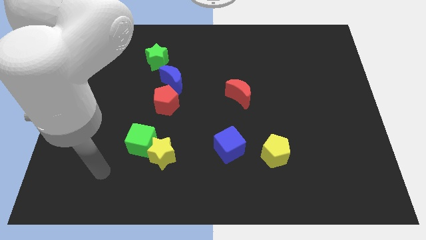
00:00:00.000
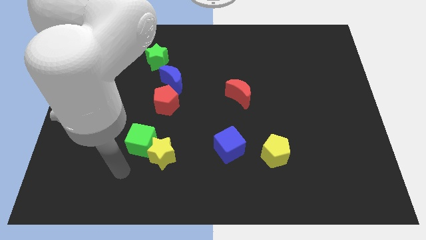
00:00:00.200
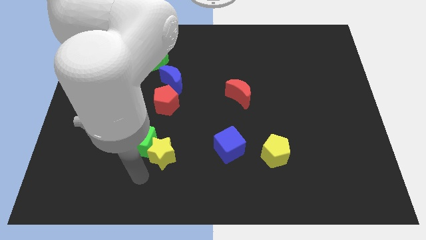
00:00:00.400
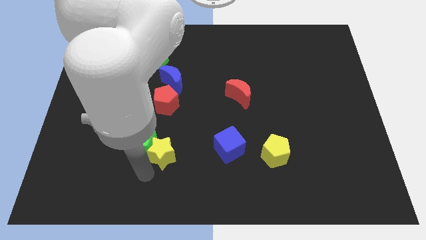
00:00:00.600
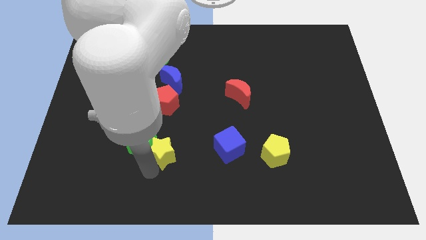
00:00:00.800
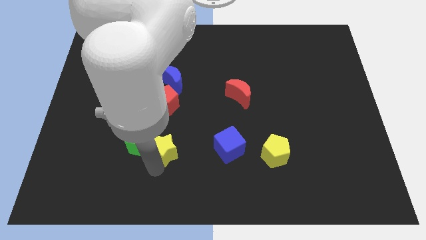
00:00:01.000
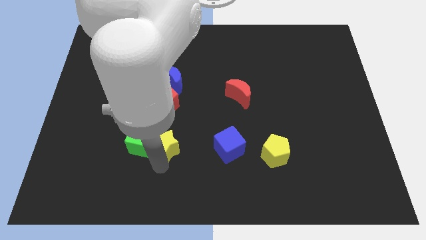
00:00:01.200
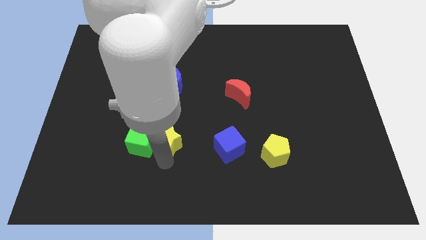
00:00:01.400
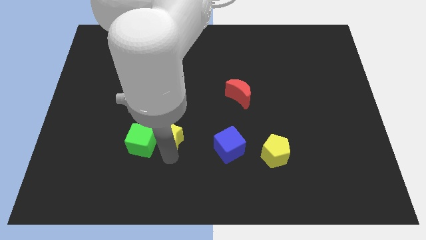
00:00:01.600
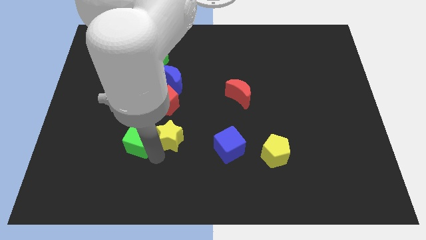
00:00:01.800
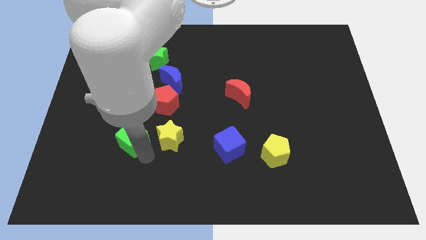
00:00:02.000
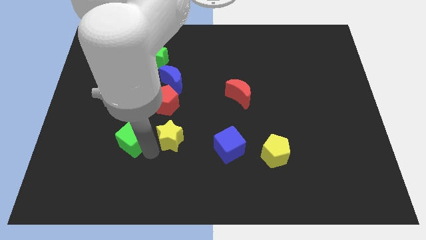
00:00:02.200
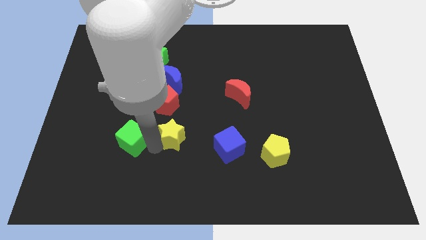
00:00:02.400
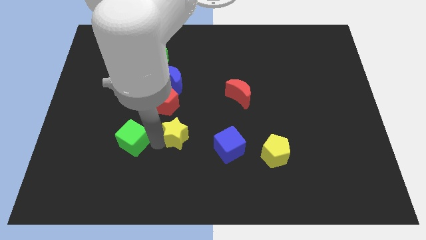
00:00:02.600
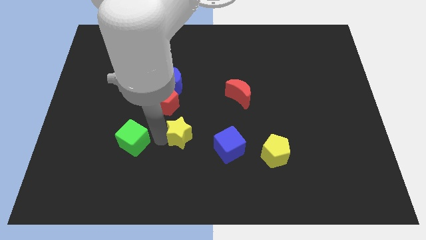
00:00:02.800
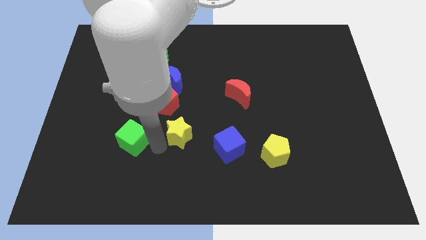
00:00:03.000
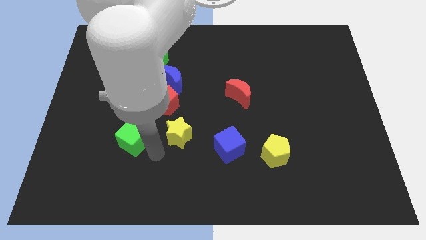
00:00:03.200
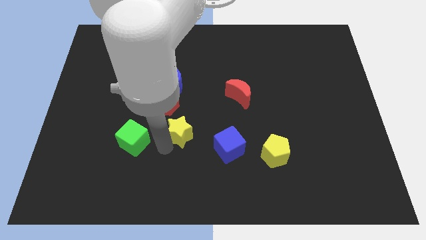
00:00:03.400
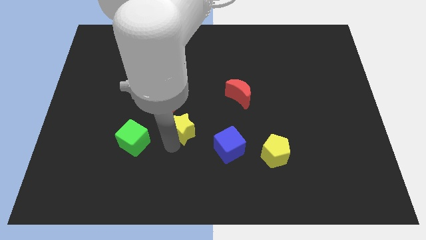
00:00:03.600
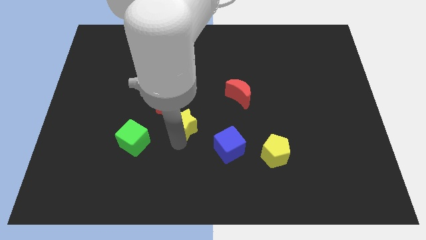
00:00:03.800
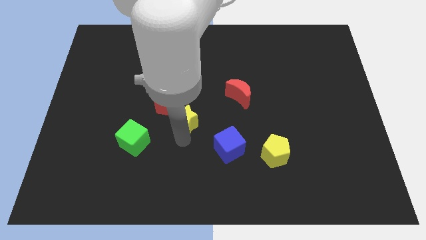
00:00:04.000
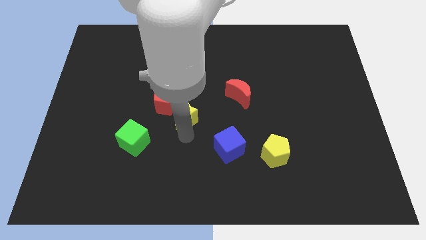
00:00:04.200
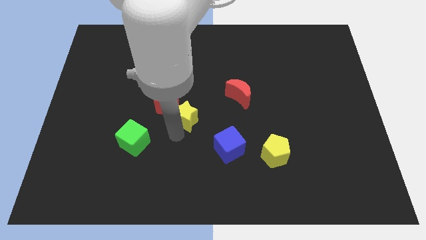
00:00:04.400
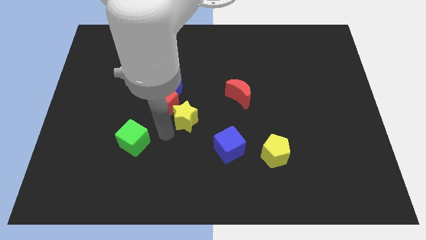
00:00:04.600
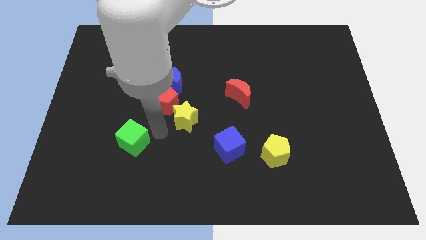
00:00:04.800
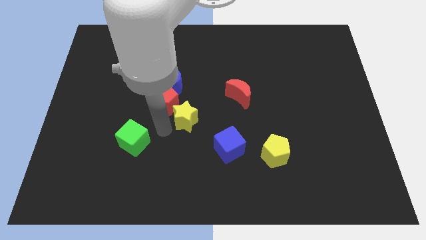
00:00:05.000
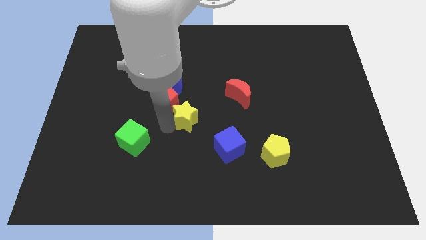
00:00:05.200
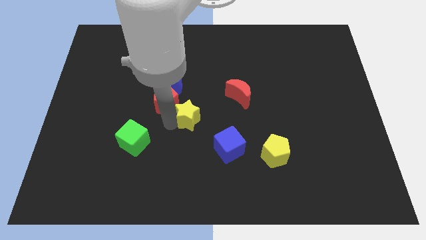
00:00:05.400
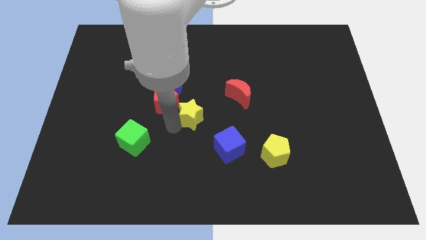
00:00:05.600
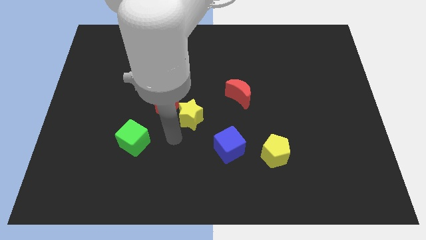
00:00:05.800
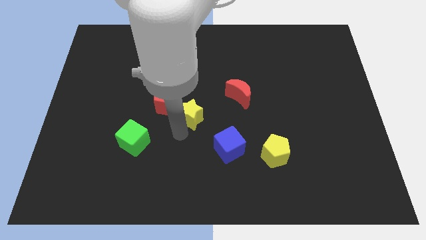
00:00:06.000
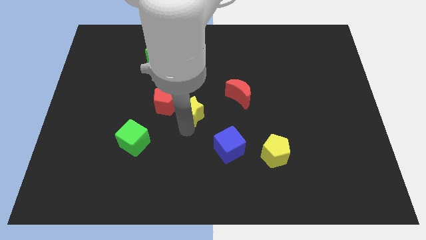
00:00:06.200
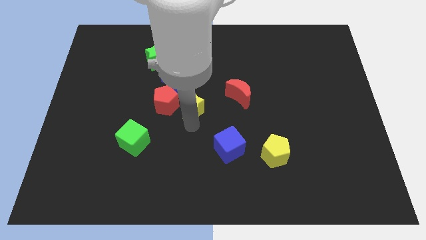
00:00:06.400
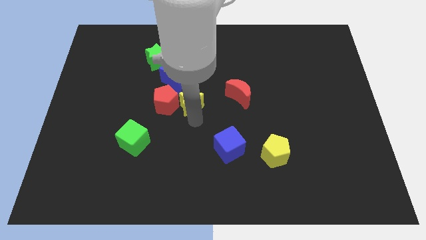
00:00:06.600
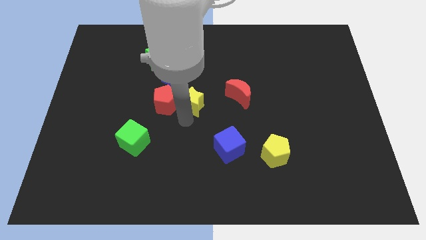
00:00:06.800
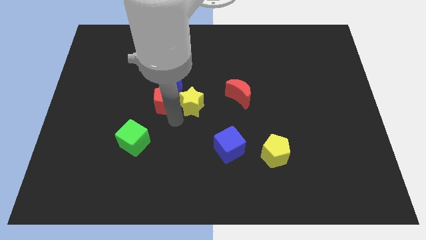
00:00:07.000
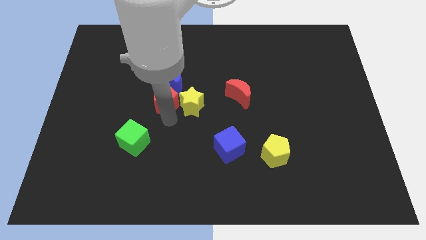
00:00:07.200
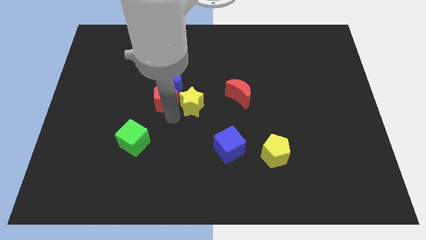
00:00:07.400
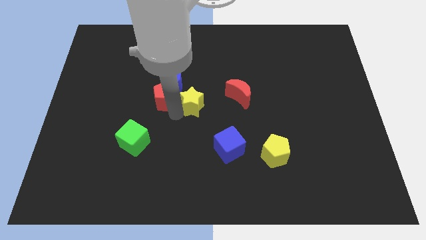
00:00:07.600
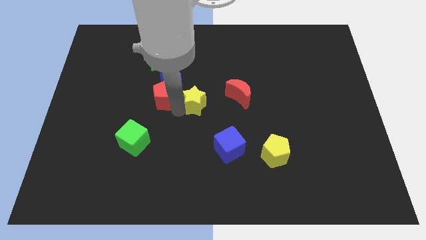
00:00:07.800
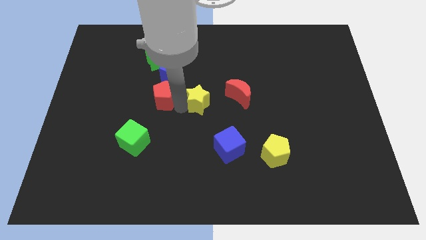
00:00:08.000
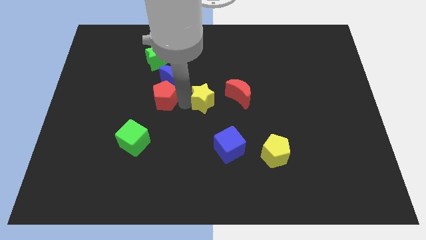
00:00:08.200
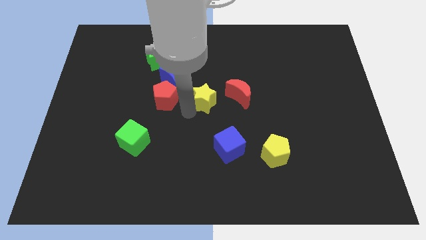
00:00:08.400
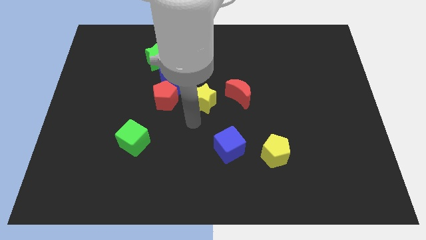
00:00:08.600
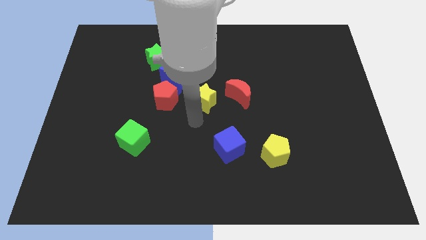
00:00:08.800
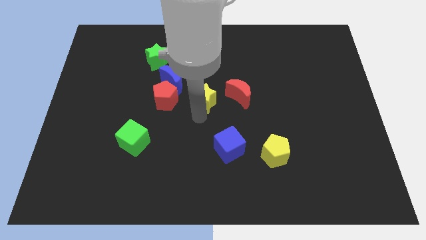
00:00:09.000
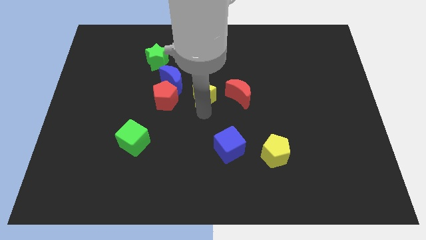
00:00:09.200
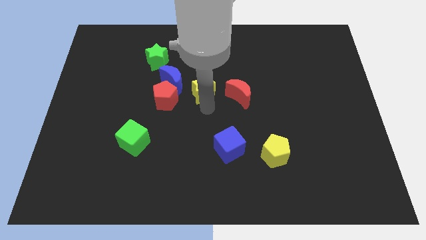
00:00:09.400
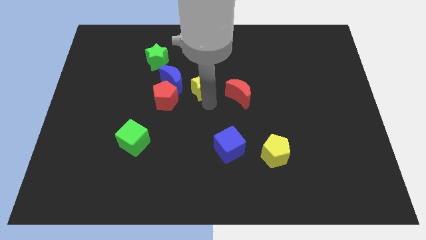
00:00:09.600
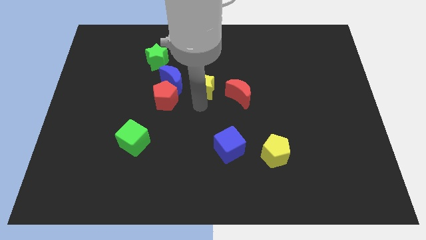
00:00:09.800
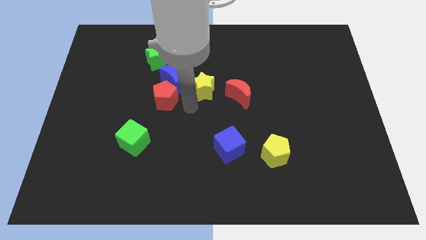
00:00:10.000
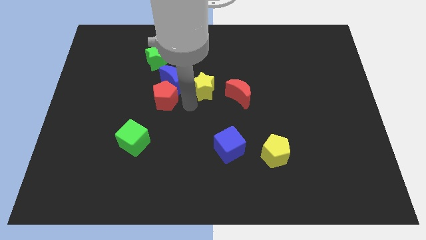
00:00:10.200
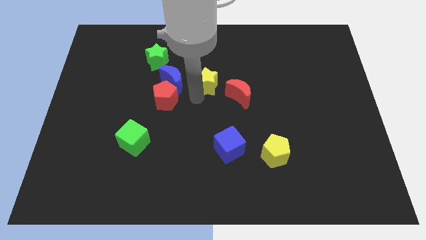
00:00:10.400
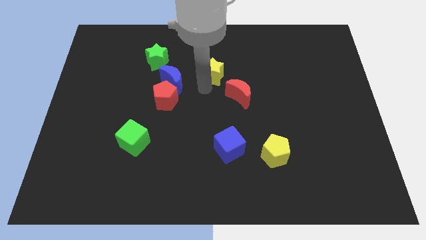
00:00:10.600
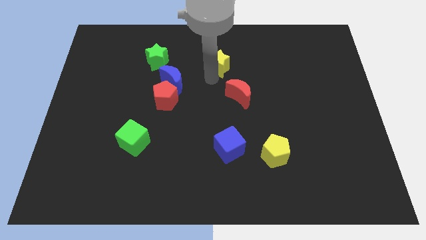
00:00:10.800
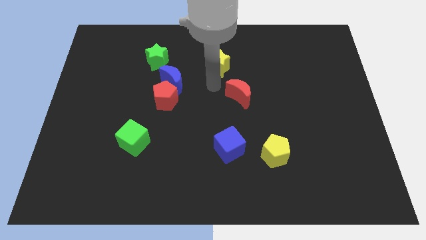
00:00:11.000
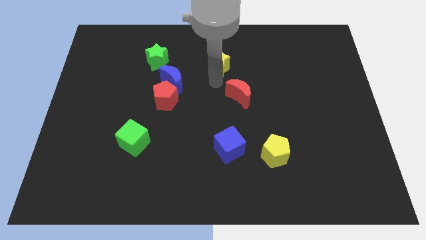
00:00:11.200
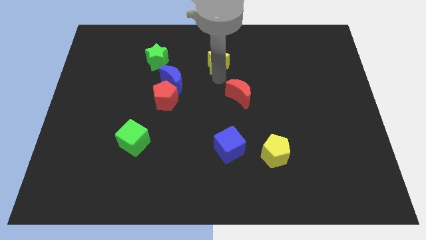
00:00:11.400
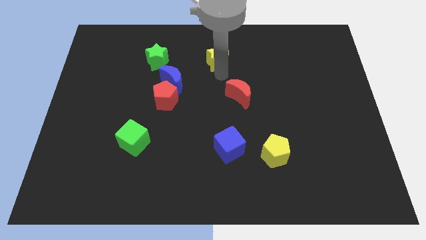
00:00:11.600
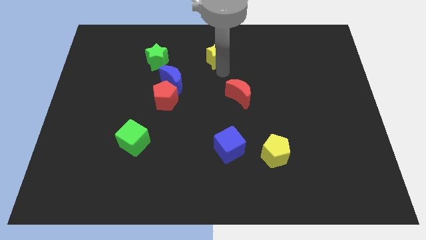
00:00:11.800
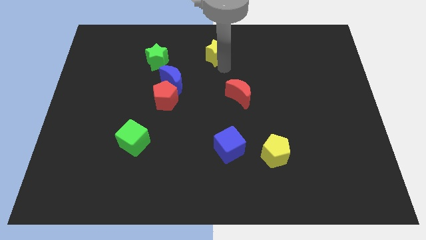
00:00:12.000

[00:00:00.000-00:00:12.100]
put the yellow star to the top side

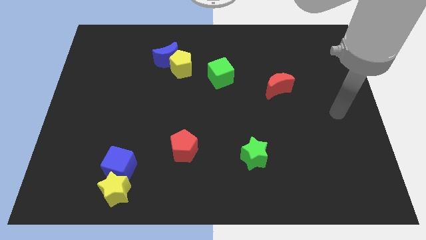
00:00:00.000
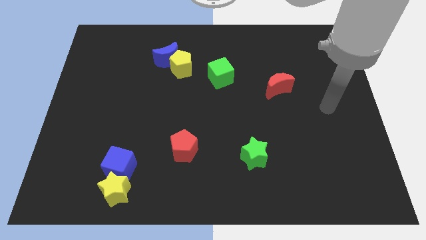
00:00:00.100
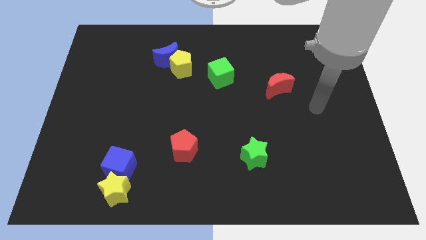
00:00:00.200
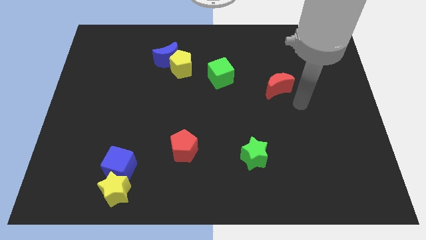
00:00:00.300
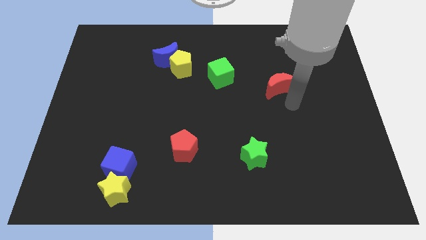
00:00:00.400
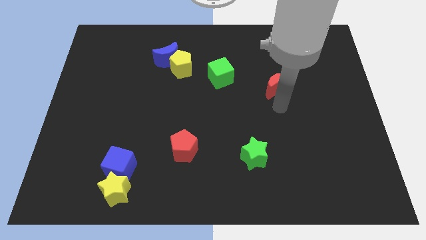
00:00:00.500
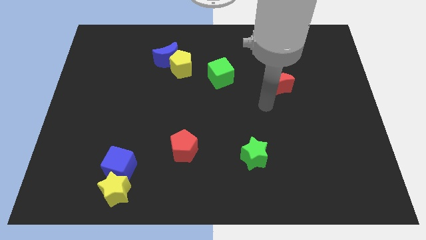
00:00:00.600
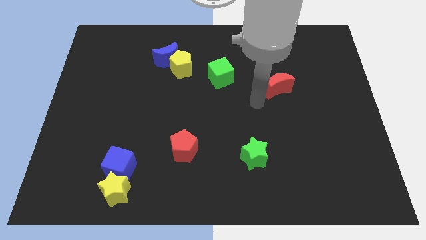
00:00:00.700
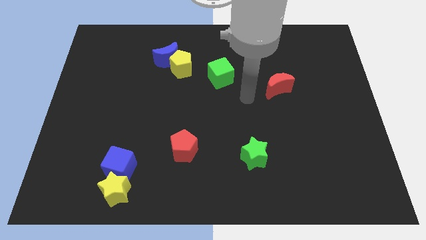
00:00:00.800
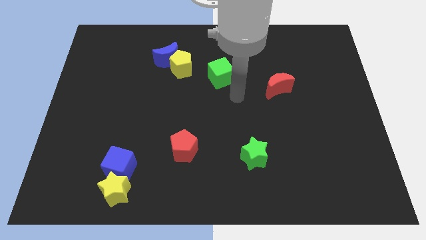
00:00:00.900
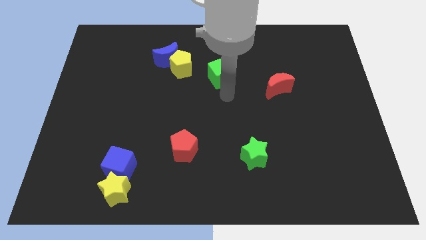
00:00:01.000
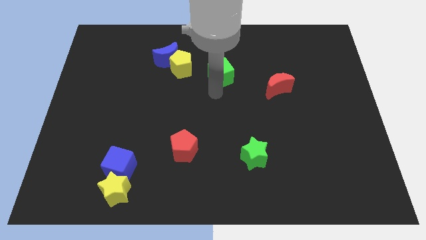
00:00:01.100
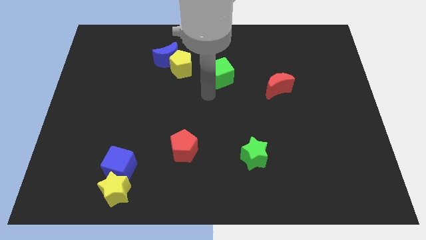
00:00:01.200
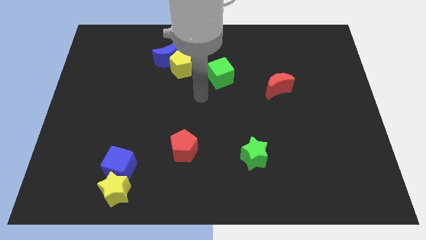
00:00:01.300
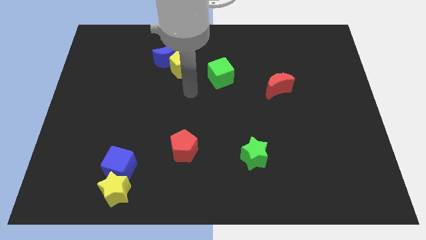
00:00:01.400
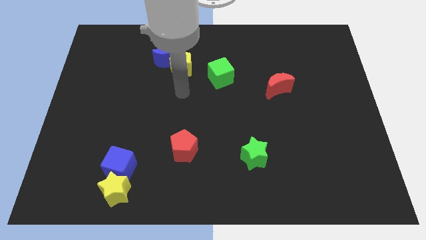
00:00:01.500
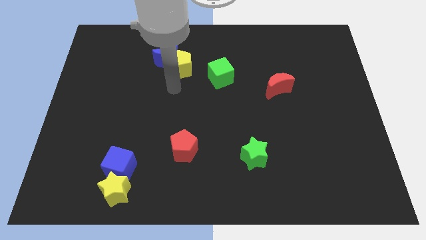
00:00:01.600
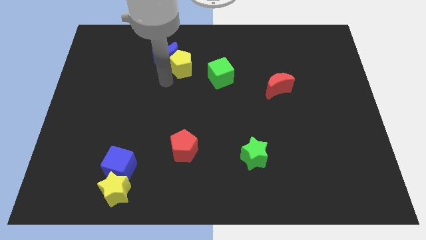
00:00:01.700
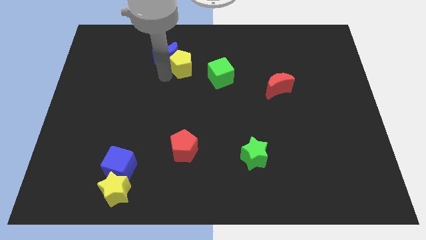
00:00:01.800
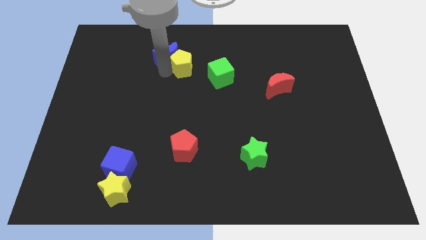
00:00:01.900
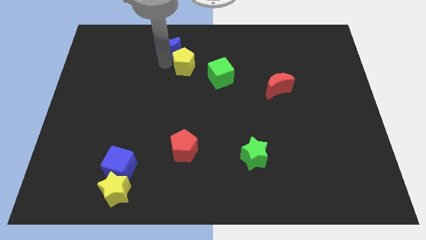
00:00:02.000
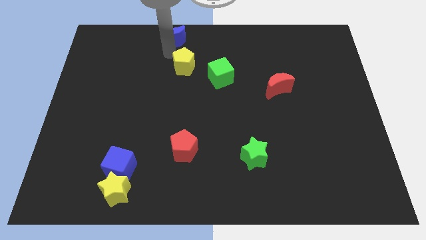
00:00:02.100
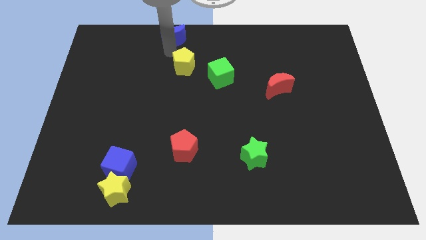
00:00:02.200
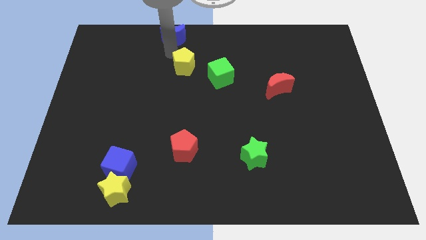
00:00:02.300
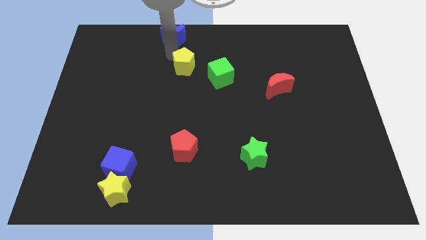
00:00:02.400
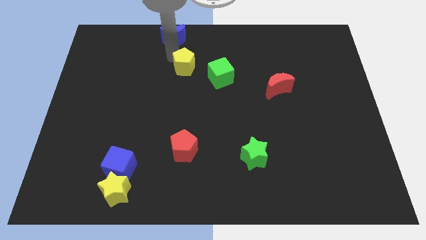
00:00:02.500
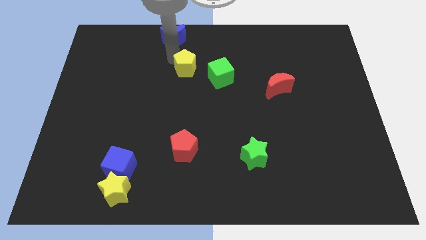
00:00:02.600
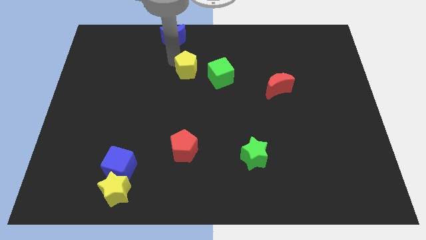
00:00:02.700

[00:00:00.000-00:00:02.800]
push the yellow pentagon to the middle of the board
